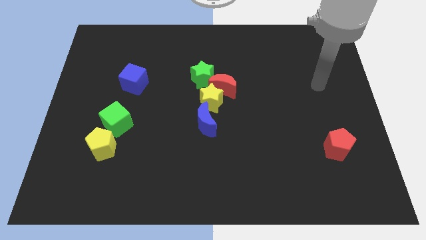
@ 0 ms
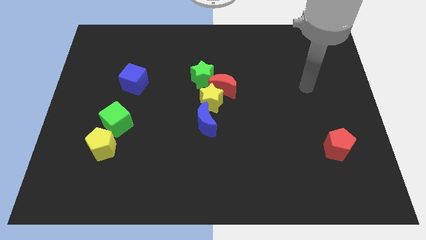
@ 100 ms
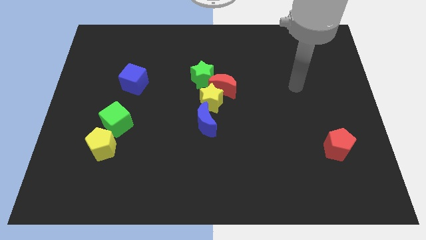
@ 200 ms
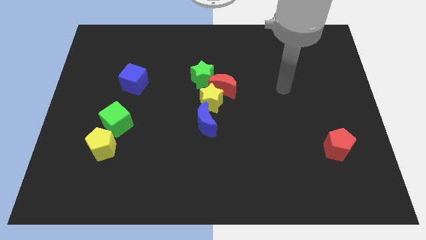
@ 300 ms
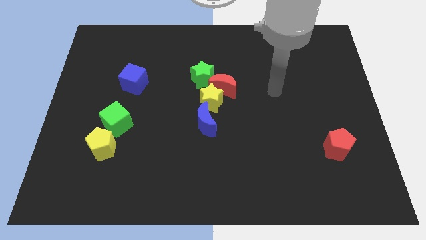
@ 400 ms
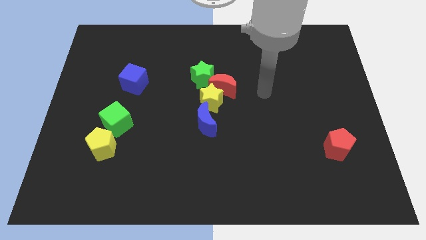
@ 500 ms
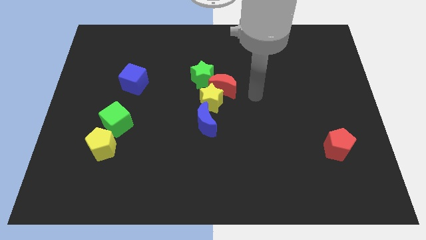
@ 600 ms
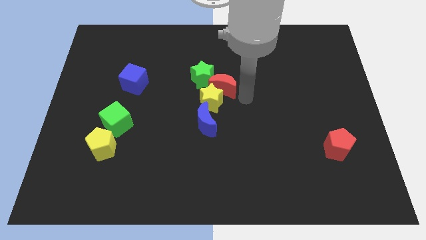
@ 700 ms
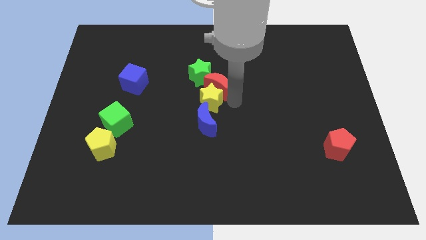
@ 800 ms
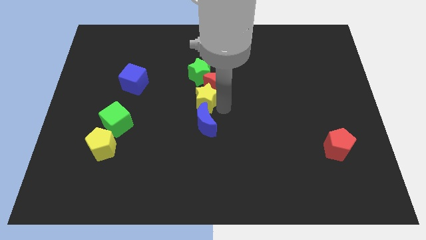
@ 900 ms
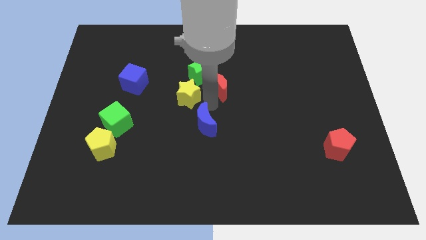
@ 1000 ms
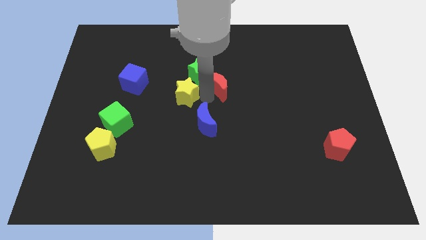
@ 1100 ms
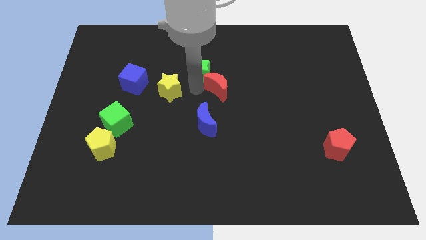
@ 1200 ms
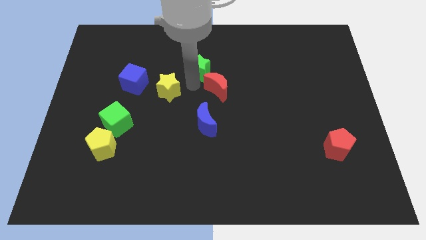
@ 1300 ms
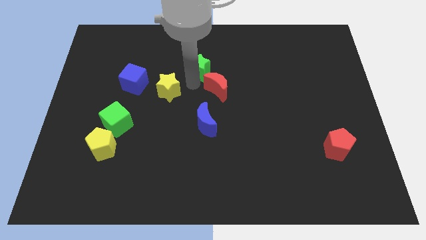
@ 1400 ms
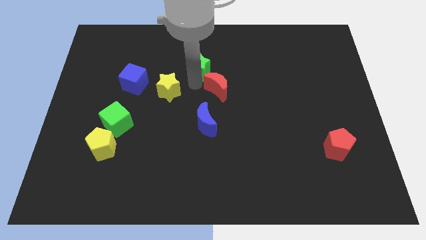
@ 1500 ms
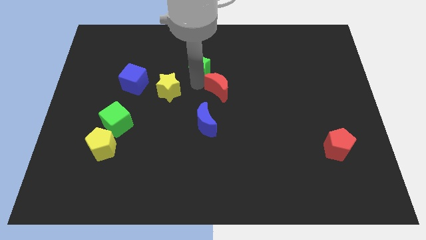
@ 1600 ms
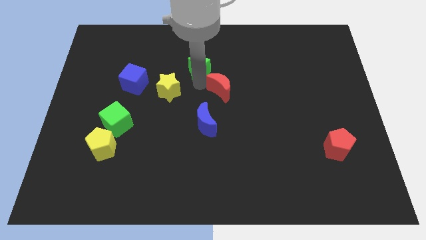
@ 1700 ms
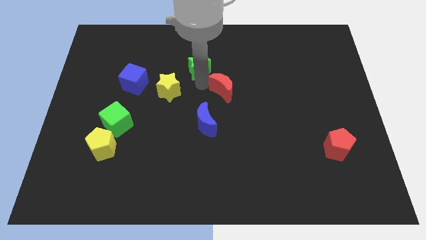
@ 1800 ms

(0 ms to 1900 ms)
pull the red moon apart from the yellow star and green star

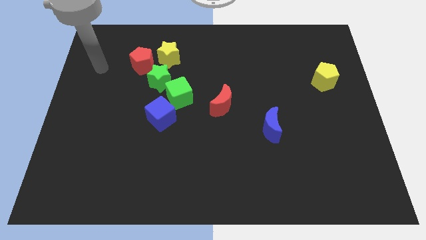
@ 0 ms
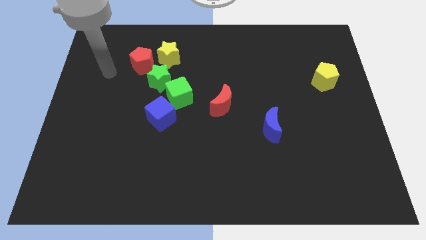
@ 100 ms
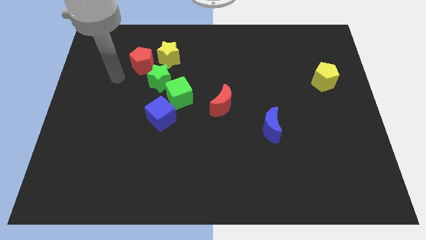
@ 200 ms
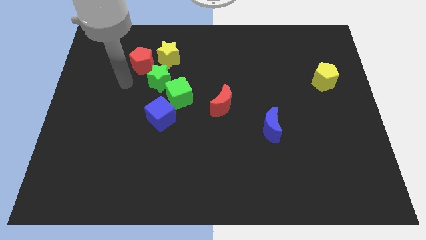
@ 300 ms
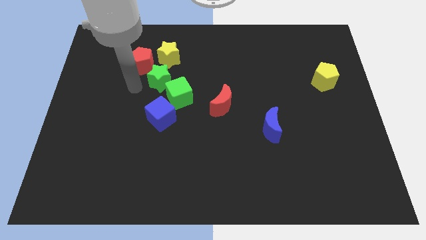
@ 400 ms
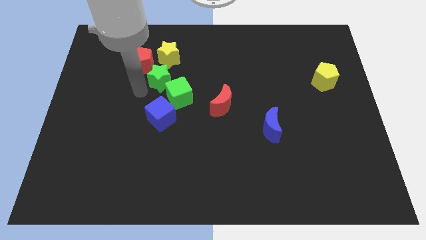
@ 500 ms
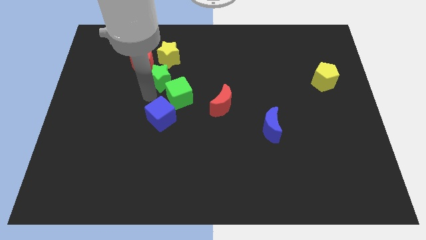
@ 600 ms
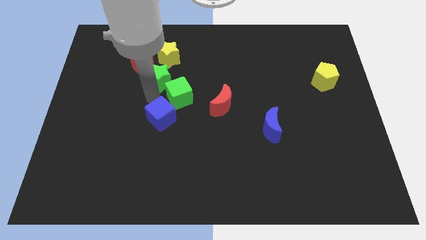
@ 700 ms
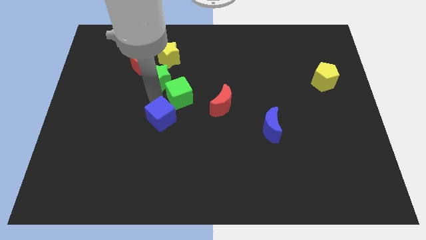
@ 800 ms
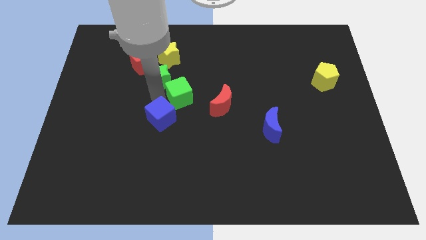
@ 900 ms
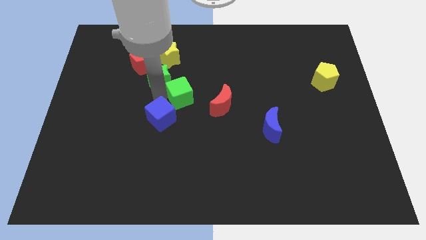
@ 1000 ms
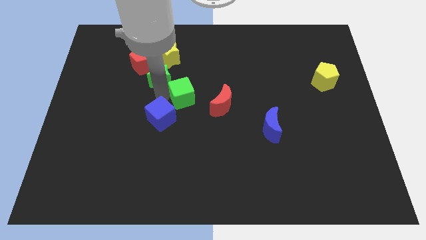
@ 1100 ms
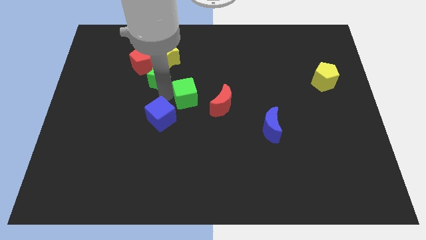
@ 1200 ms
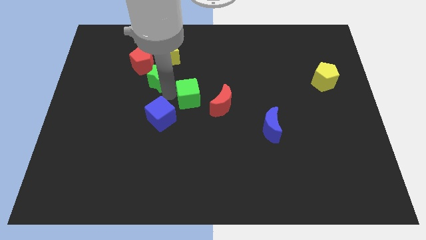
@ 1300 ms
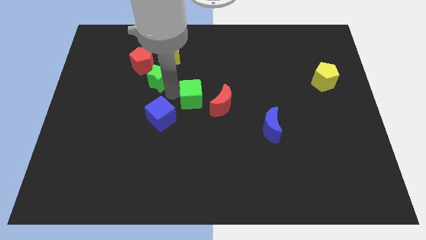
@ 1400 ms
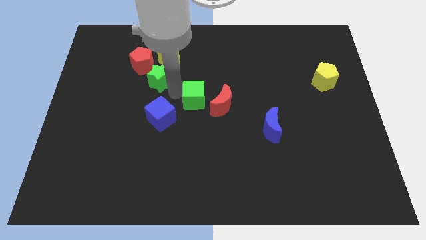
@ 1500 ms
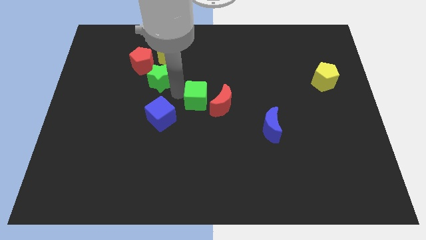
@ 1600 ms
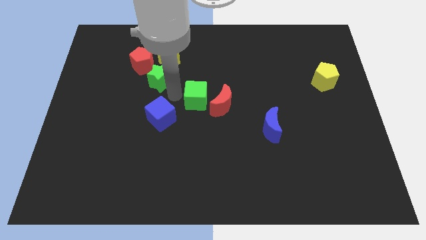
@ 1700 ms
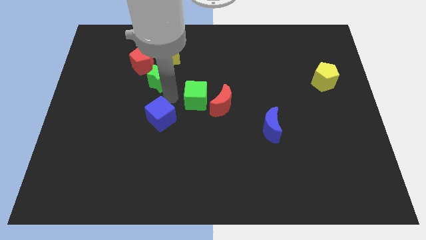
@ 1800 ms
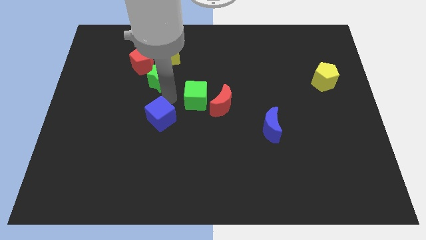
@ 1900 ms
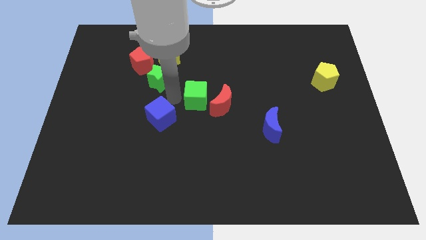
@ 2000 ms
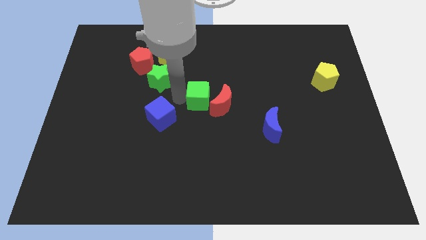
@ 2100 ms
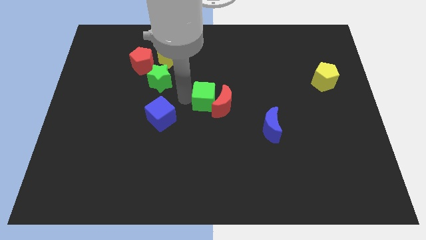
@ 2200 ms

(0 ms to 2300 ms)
move the green cube away from the green star and blue cube

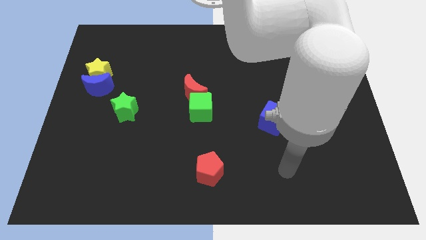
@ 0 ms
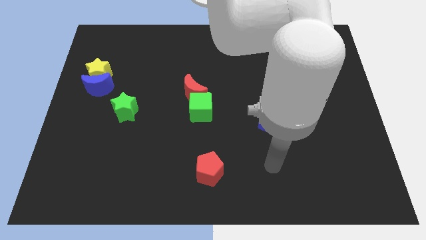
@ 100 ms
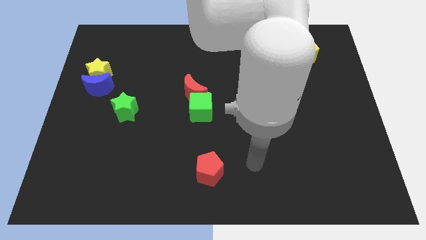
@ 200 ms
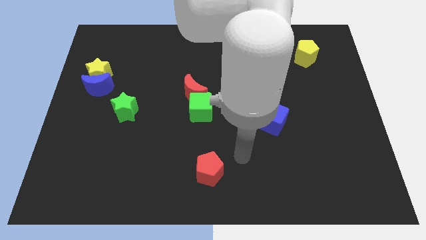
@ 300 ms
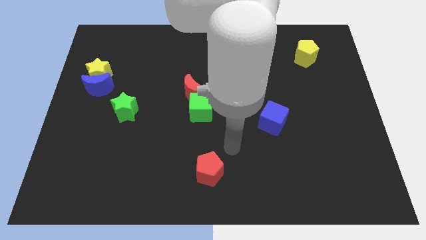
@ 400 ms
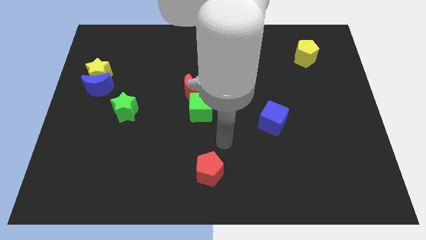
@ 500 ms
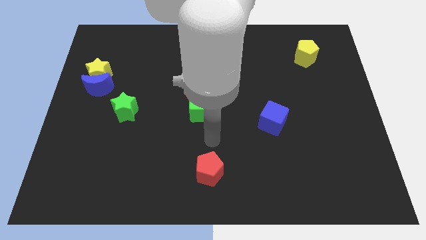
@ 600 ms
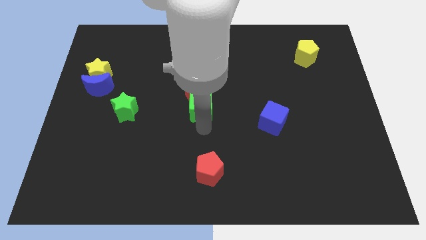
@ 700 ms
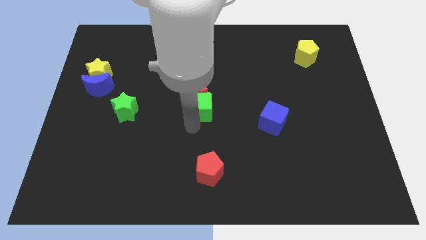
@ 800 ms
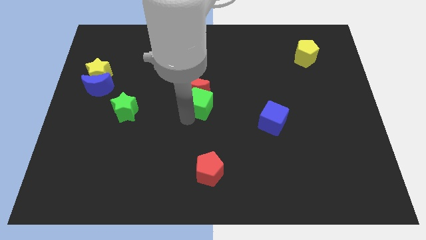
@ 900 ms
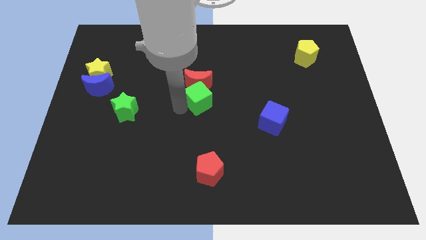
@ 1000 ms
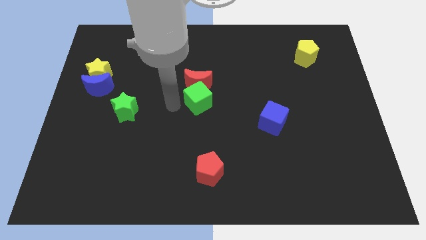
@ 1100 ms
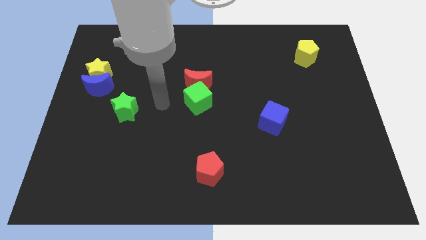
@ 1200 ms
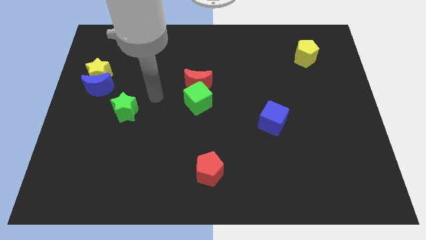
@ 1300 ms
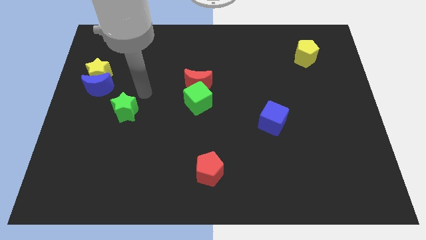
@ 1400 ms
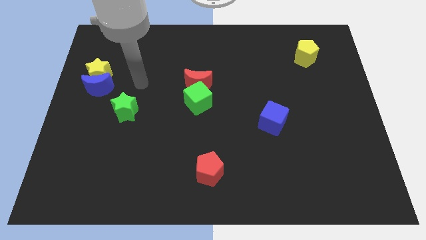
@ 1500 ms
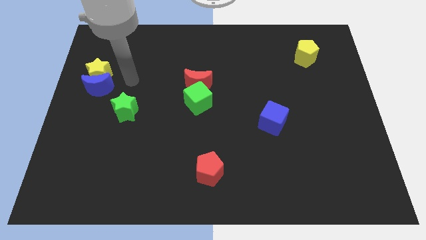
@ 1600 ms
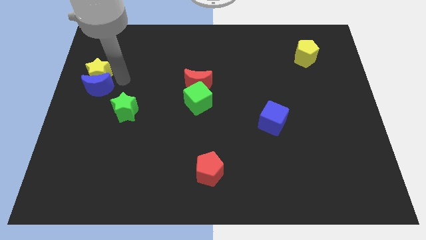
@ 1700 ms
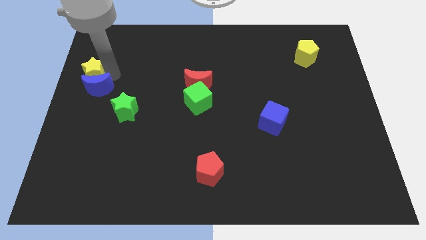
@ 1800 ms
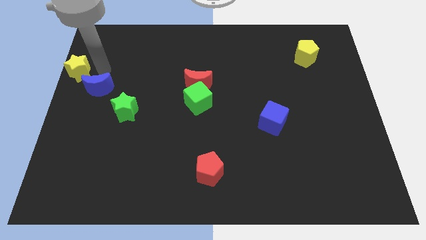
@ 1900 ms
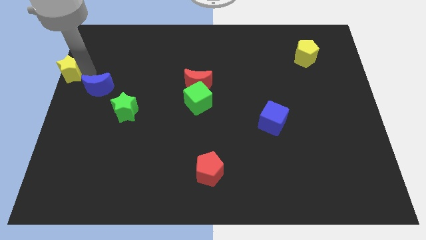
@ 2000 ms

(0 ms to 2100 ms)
separate the blue moon from the yellow star

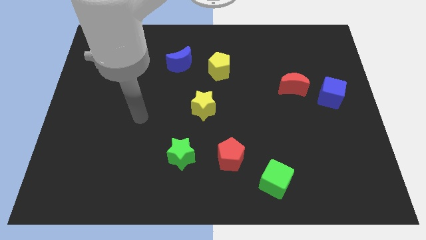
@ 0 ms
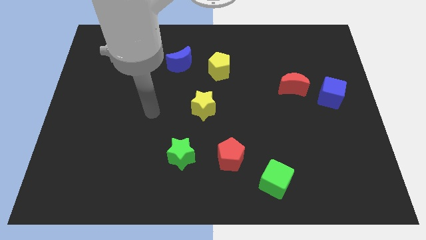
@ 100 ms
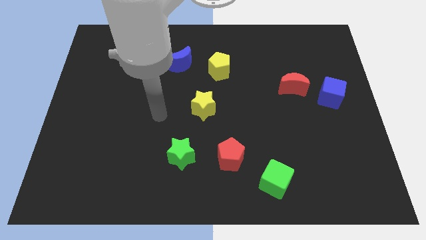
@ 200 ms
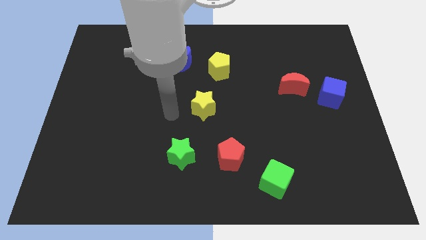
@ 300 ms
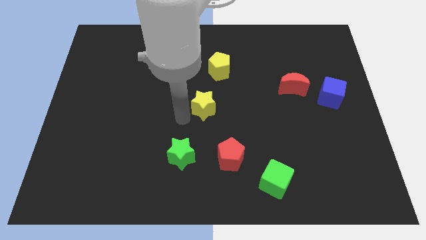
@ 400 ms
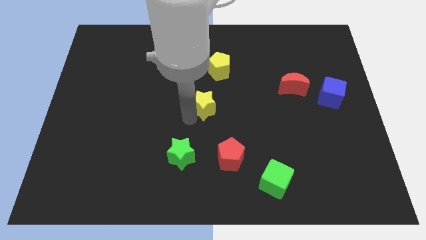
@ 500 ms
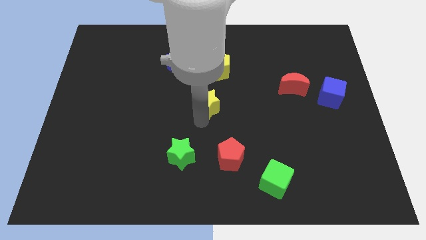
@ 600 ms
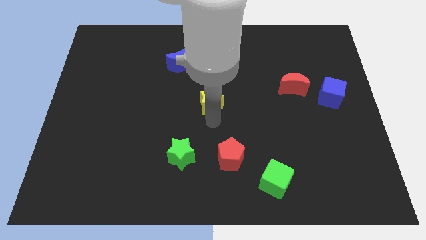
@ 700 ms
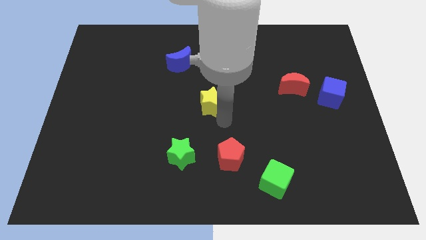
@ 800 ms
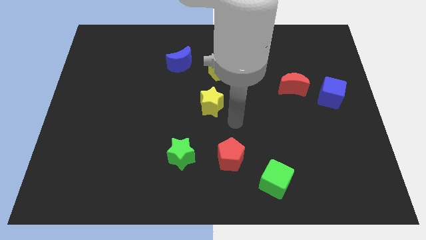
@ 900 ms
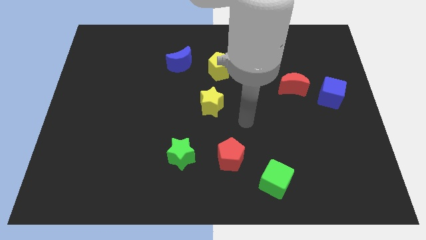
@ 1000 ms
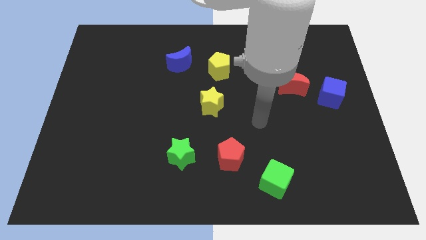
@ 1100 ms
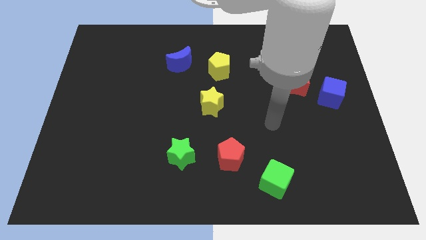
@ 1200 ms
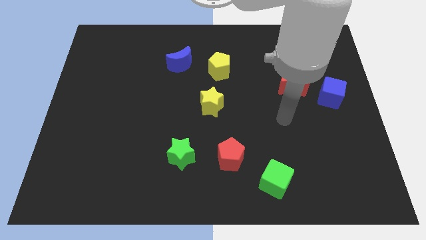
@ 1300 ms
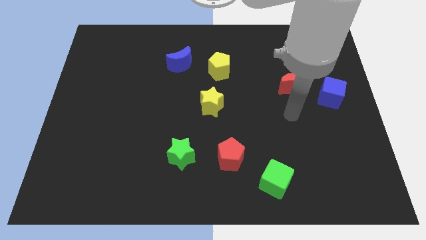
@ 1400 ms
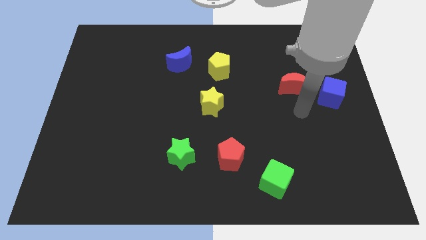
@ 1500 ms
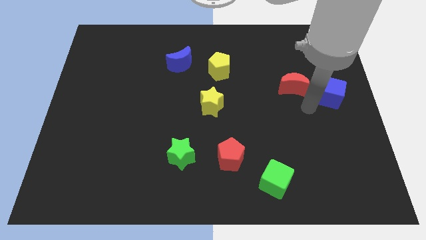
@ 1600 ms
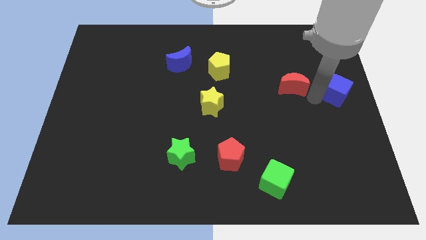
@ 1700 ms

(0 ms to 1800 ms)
separate the red moon from the blue cube

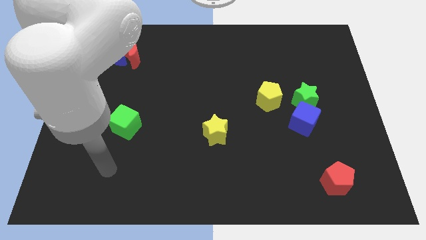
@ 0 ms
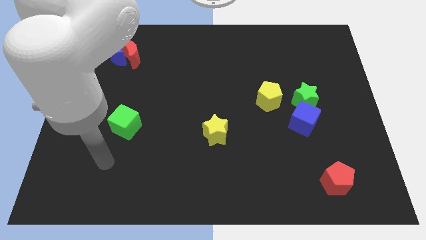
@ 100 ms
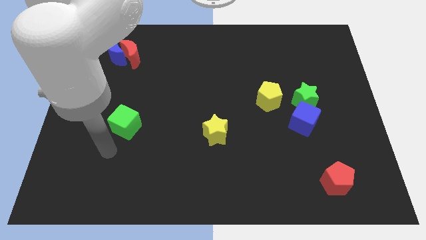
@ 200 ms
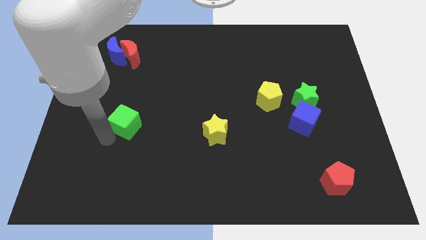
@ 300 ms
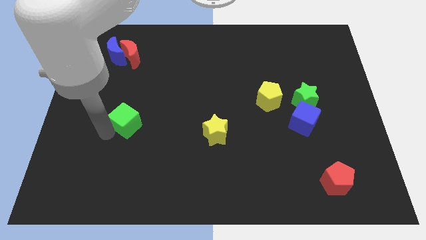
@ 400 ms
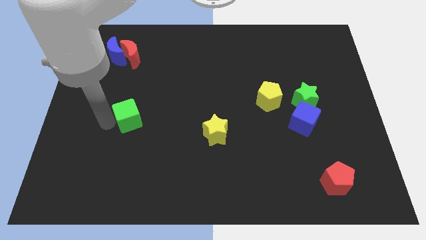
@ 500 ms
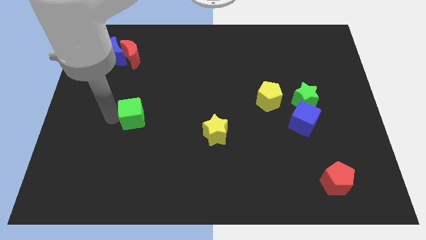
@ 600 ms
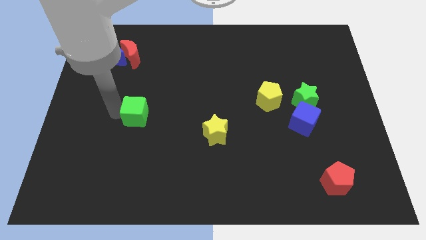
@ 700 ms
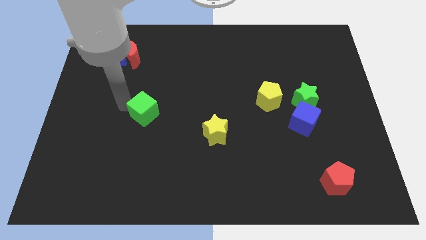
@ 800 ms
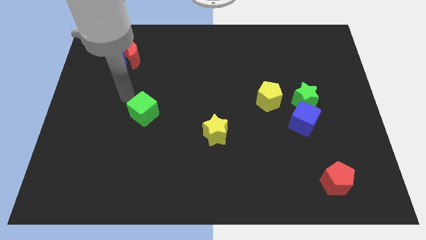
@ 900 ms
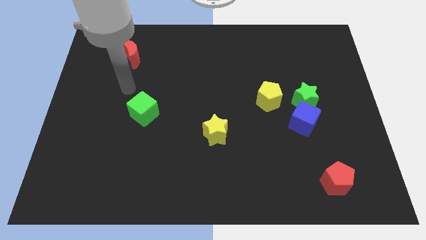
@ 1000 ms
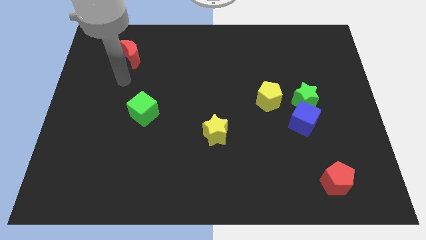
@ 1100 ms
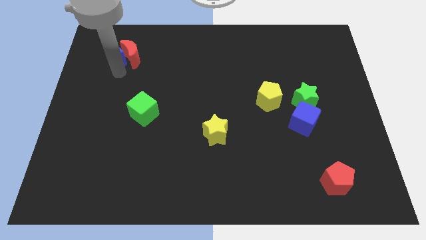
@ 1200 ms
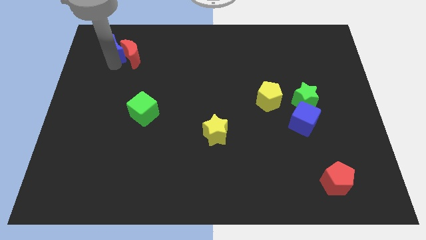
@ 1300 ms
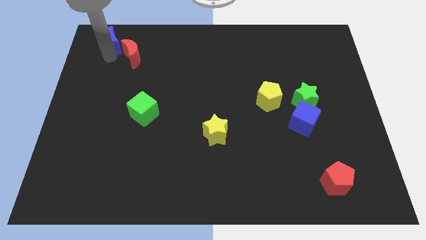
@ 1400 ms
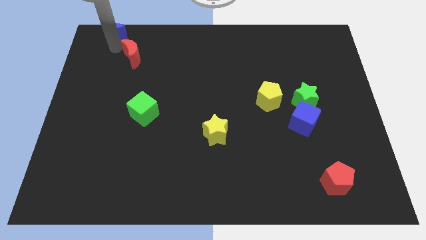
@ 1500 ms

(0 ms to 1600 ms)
move the red moon away from the blue moon
